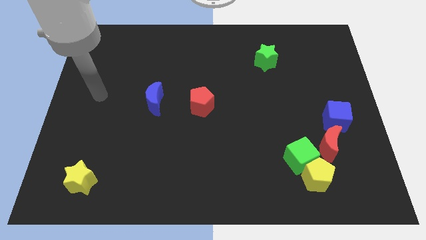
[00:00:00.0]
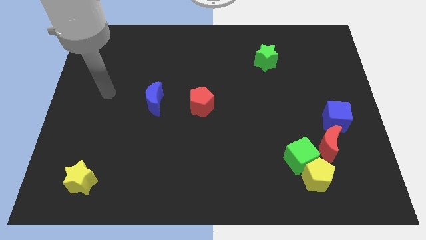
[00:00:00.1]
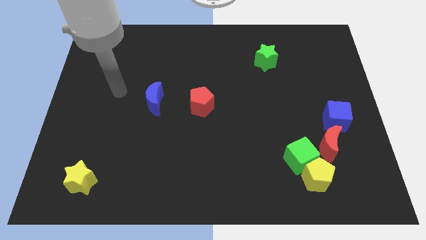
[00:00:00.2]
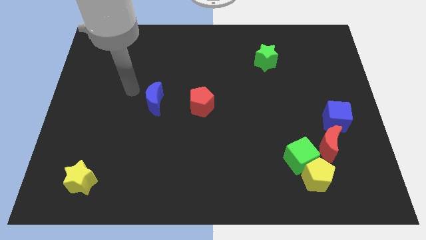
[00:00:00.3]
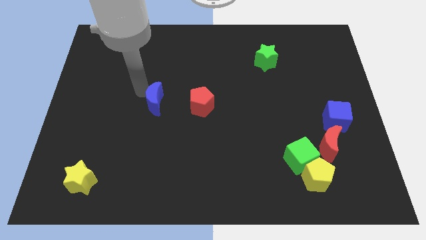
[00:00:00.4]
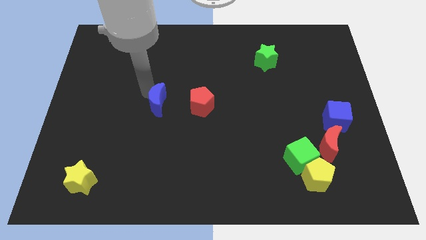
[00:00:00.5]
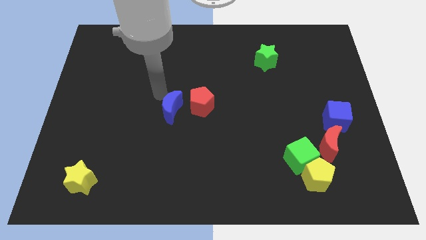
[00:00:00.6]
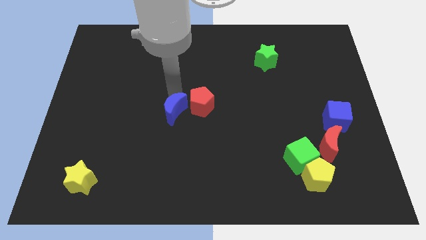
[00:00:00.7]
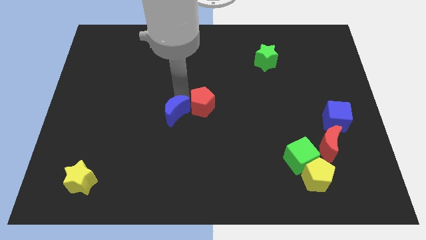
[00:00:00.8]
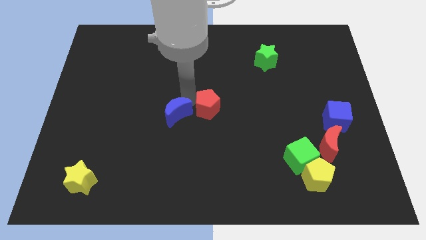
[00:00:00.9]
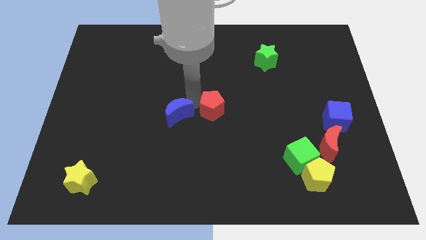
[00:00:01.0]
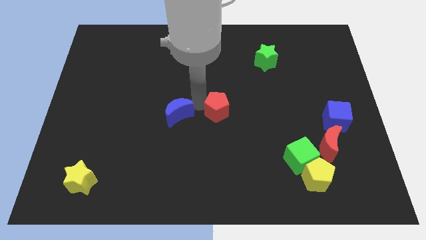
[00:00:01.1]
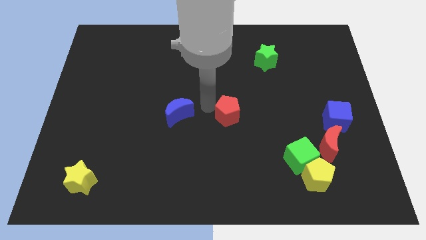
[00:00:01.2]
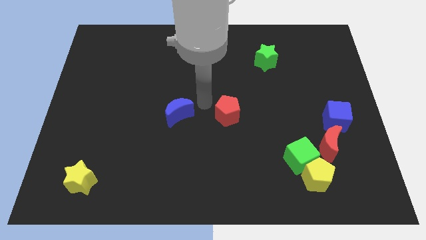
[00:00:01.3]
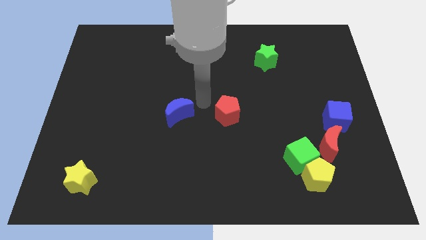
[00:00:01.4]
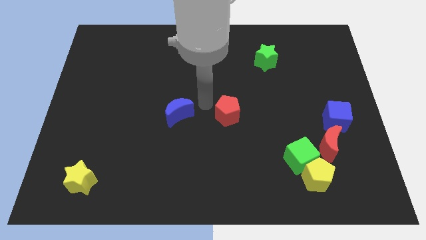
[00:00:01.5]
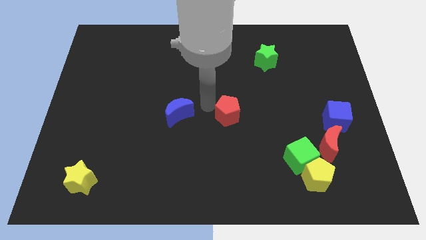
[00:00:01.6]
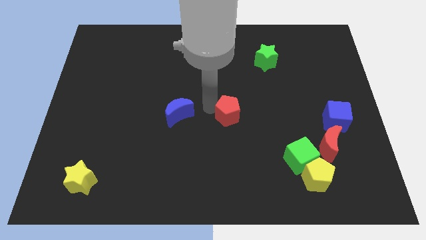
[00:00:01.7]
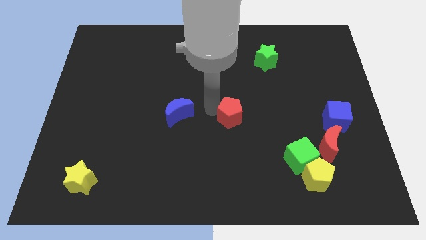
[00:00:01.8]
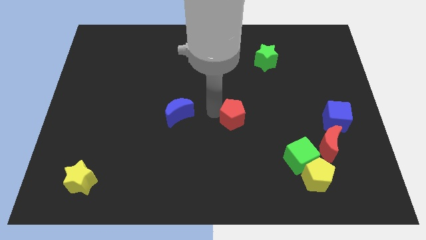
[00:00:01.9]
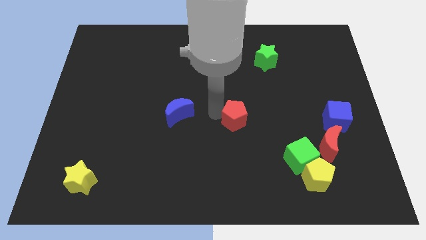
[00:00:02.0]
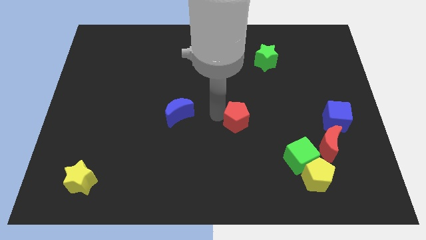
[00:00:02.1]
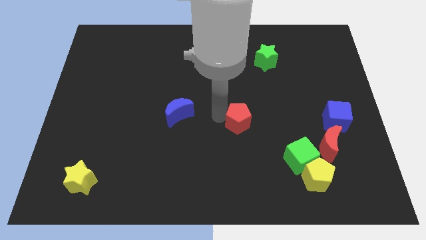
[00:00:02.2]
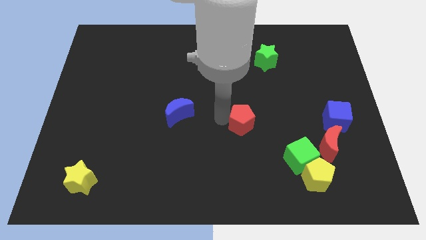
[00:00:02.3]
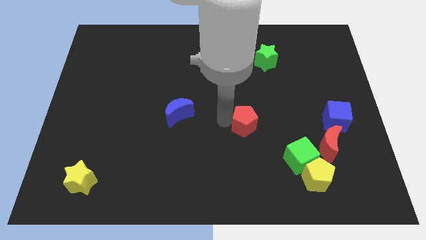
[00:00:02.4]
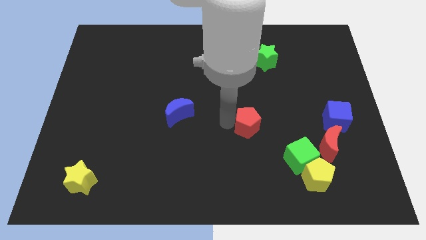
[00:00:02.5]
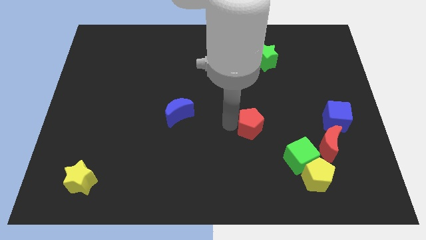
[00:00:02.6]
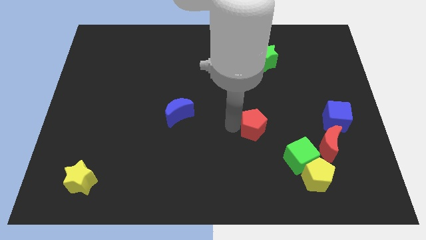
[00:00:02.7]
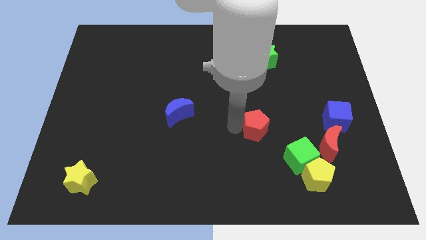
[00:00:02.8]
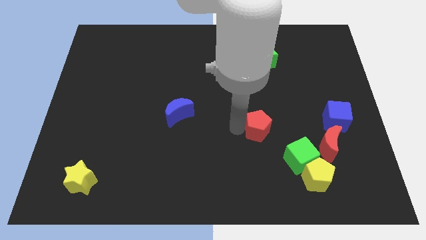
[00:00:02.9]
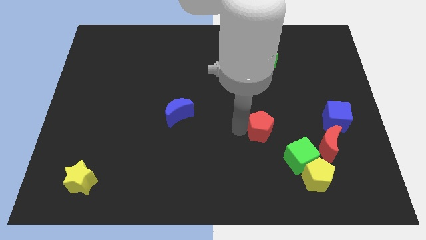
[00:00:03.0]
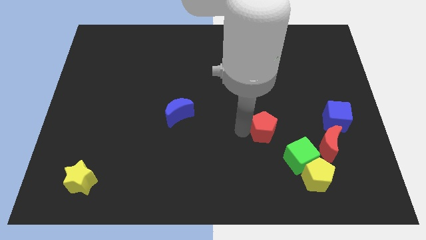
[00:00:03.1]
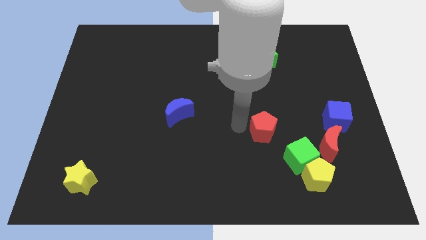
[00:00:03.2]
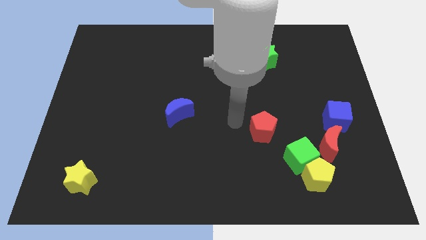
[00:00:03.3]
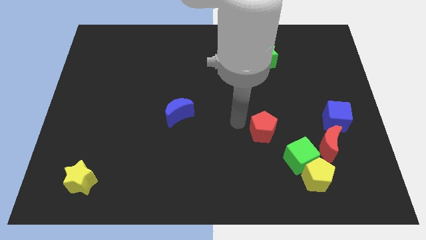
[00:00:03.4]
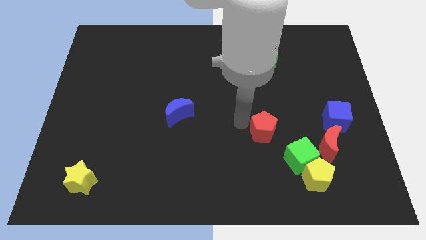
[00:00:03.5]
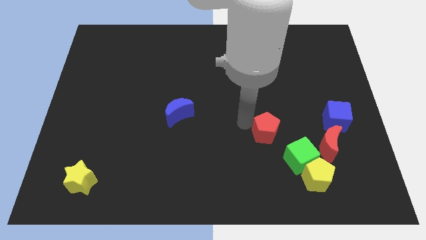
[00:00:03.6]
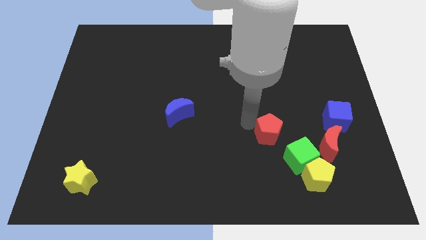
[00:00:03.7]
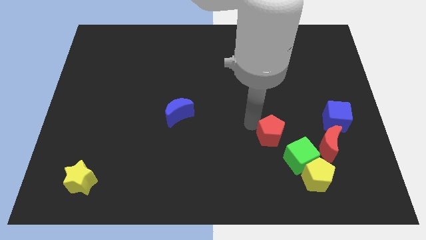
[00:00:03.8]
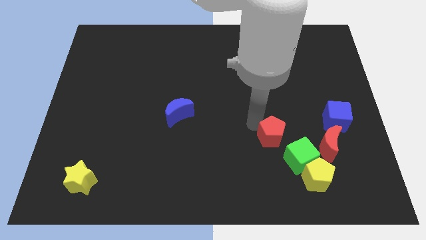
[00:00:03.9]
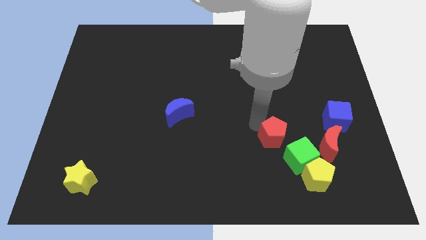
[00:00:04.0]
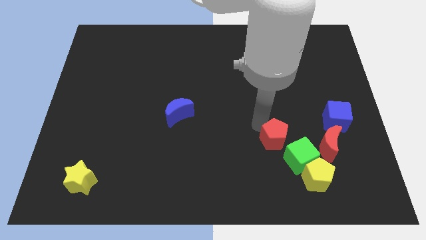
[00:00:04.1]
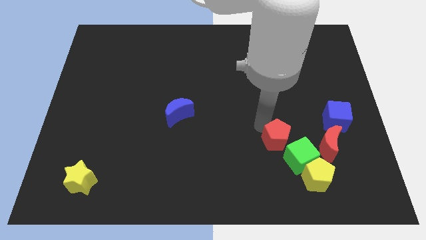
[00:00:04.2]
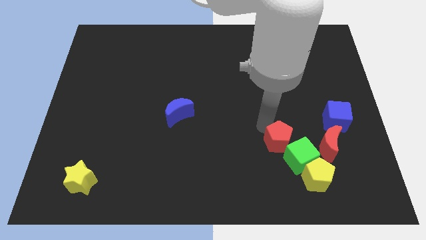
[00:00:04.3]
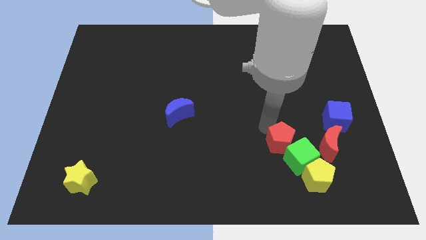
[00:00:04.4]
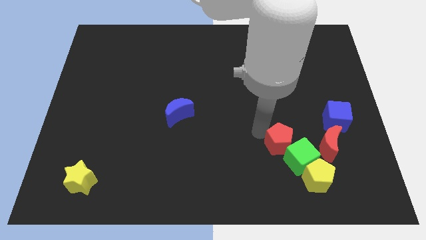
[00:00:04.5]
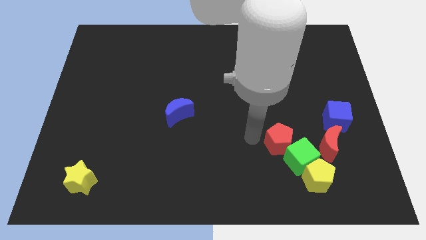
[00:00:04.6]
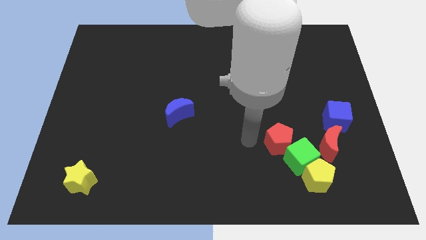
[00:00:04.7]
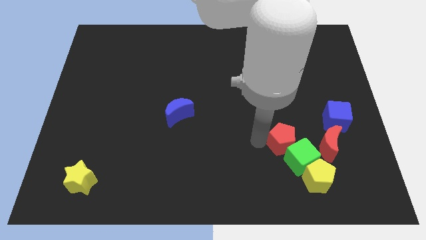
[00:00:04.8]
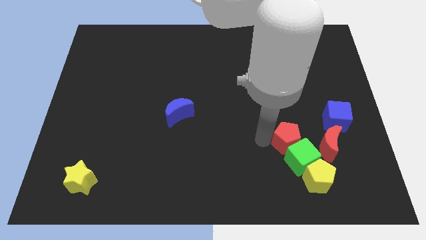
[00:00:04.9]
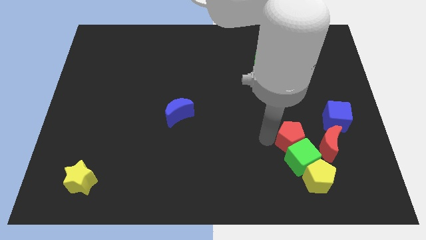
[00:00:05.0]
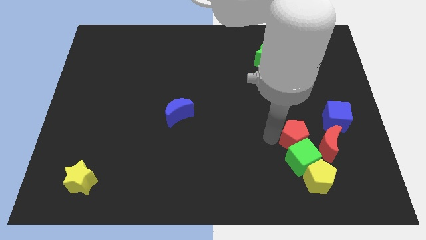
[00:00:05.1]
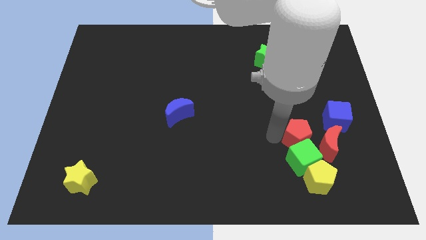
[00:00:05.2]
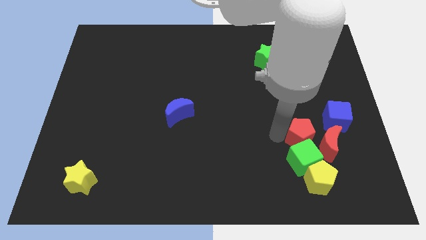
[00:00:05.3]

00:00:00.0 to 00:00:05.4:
move the red pentagon next to the red moon

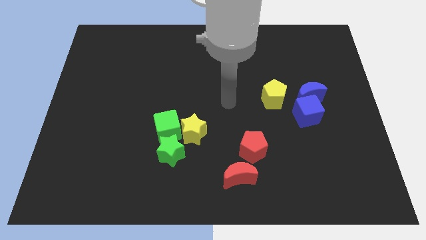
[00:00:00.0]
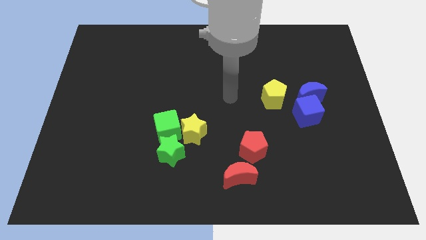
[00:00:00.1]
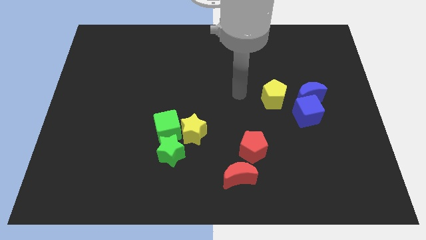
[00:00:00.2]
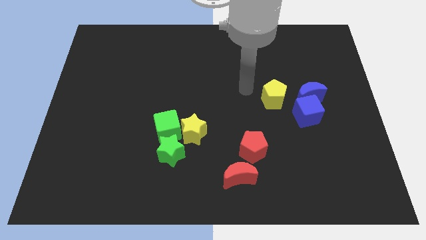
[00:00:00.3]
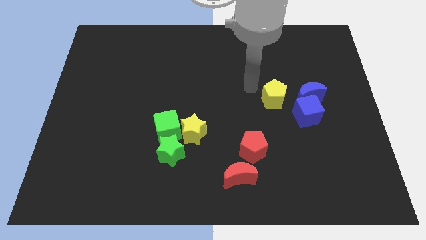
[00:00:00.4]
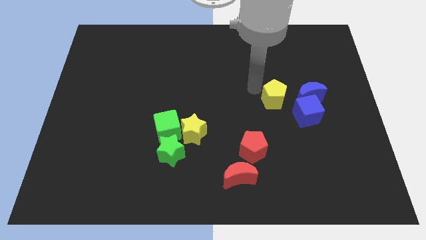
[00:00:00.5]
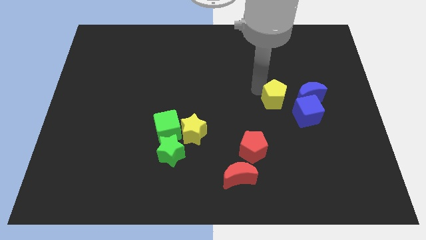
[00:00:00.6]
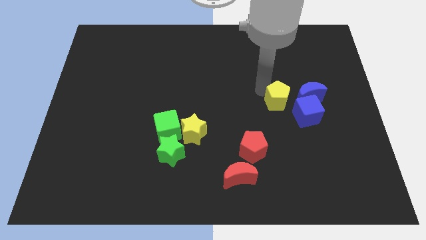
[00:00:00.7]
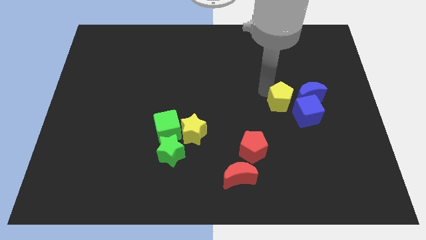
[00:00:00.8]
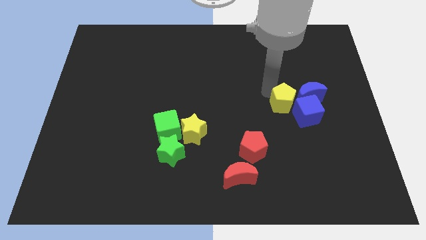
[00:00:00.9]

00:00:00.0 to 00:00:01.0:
put the yellow pentagon close to the blue cube
